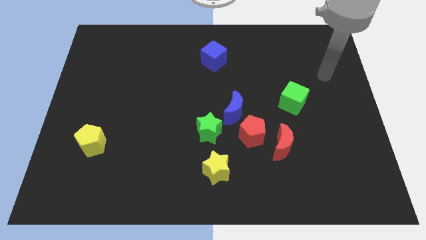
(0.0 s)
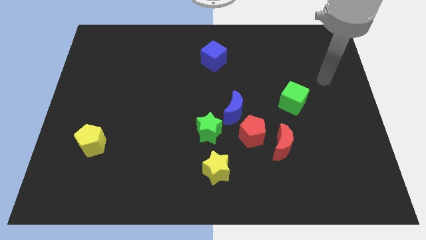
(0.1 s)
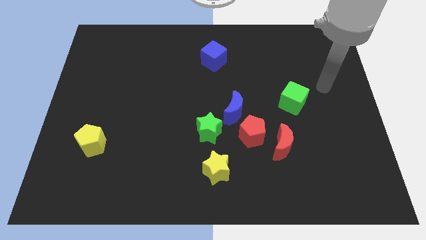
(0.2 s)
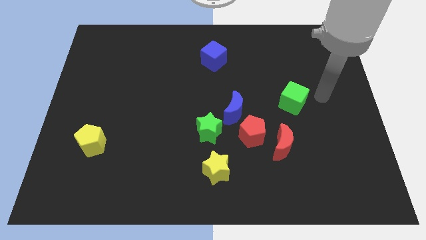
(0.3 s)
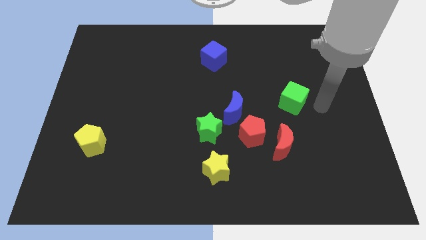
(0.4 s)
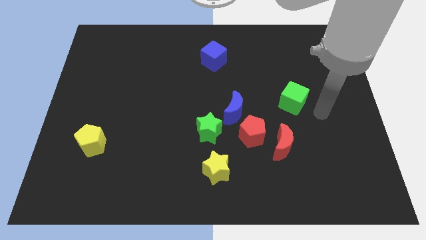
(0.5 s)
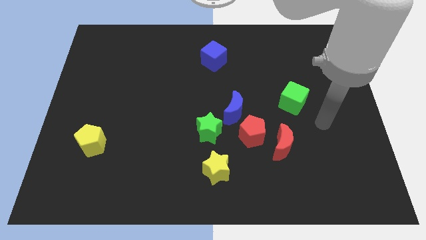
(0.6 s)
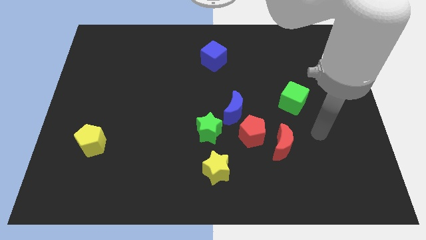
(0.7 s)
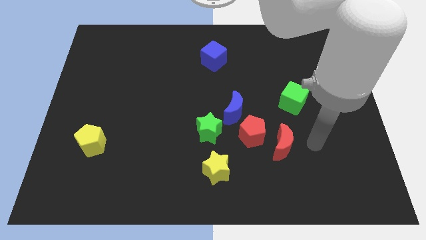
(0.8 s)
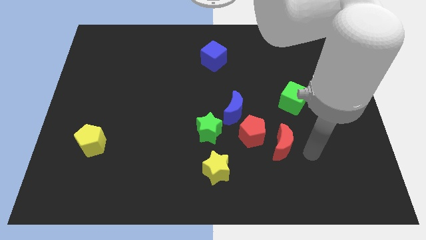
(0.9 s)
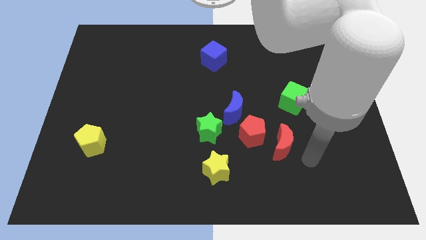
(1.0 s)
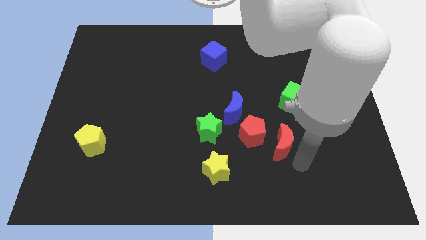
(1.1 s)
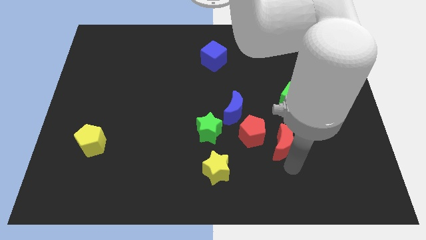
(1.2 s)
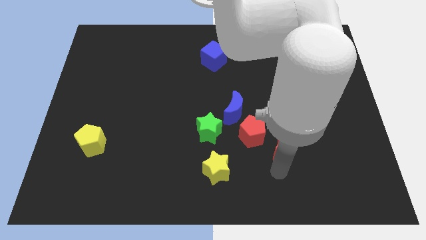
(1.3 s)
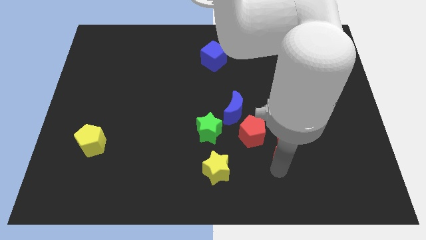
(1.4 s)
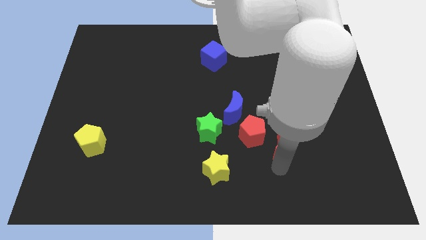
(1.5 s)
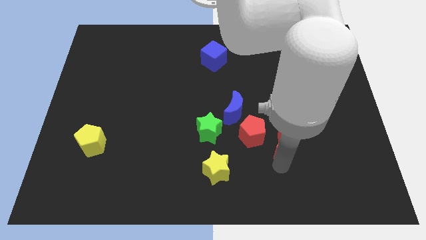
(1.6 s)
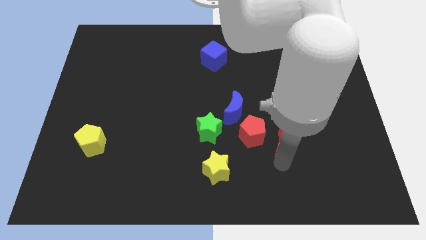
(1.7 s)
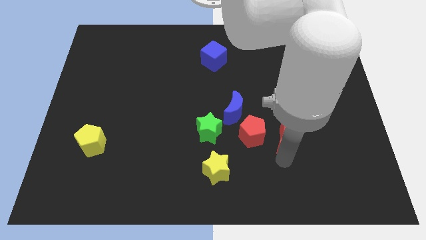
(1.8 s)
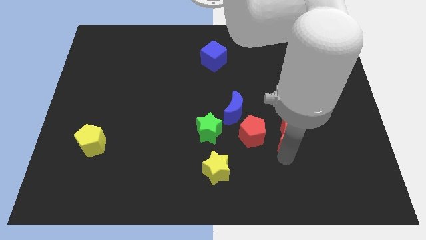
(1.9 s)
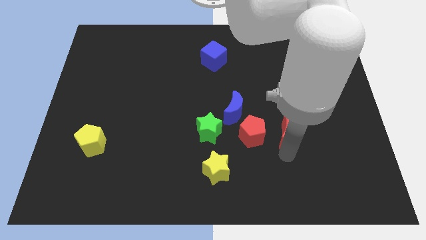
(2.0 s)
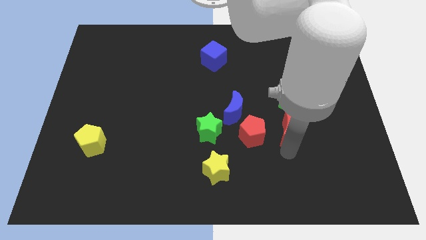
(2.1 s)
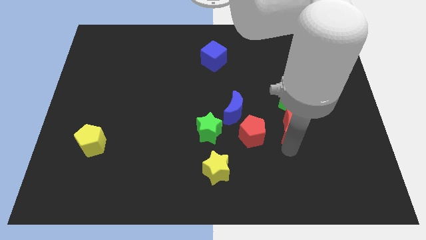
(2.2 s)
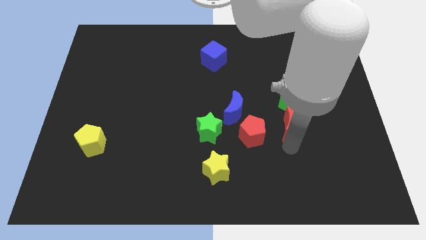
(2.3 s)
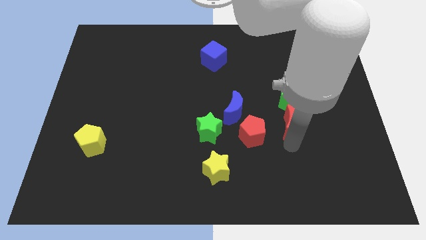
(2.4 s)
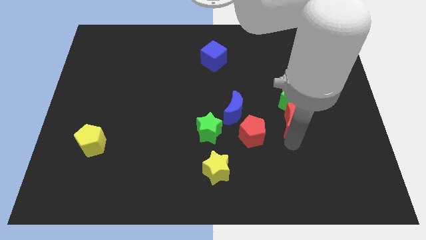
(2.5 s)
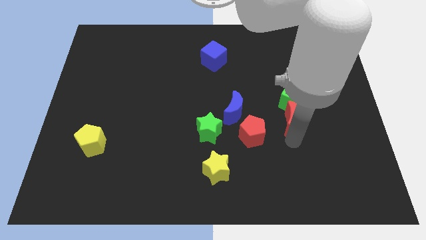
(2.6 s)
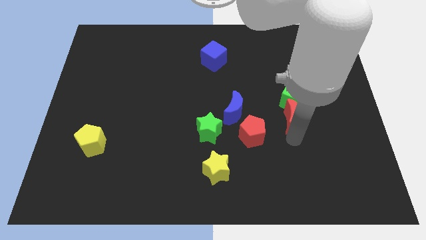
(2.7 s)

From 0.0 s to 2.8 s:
slide the red moon a little diagonally up and right

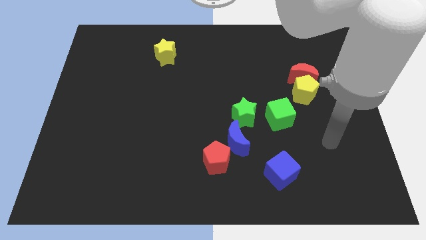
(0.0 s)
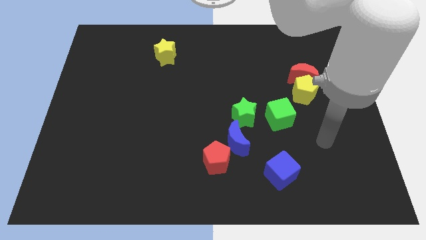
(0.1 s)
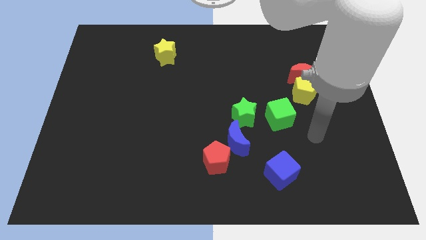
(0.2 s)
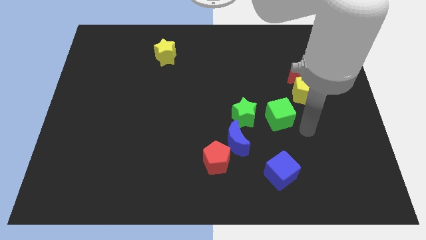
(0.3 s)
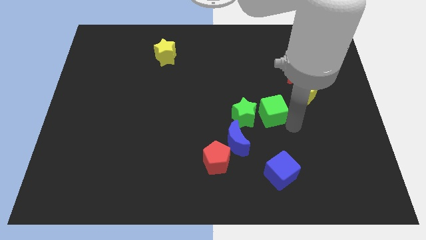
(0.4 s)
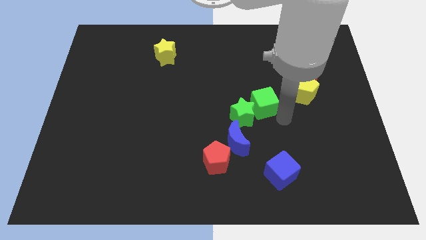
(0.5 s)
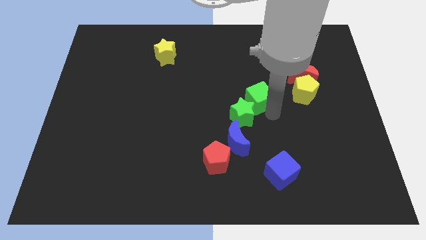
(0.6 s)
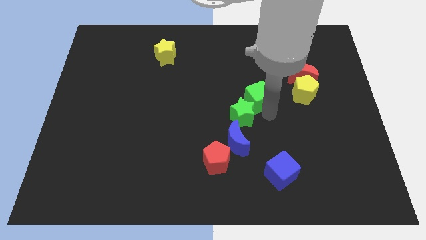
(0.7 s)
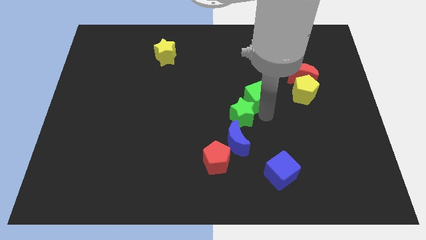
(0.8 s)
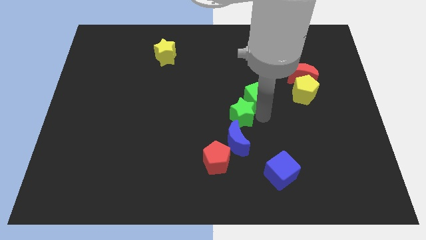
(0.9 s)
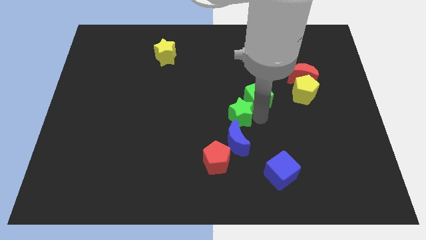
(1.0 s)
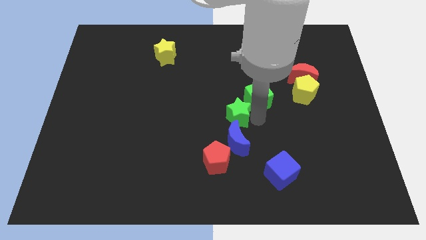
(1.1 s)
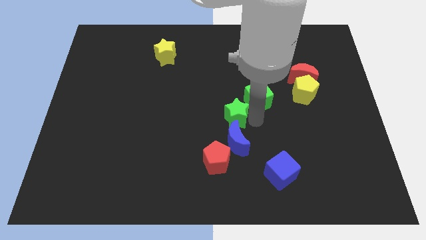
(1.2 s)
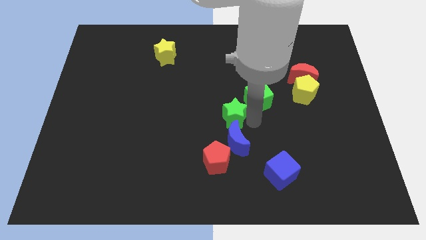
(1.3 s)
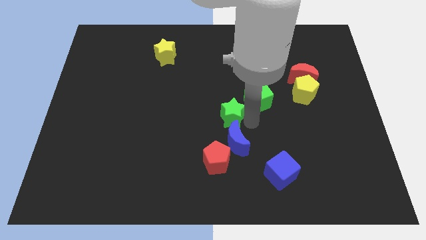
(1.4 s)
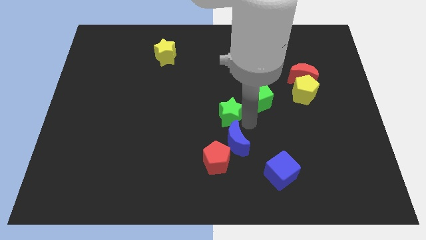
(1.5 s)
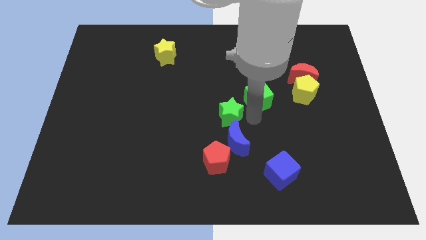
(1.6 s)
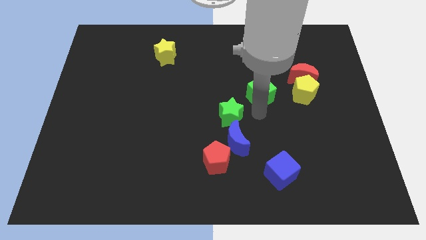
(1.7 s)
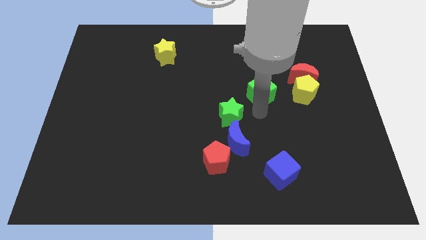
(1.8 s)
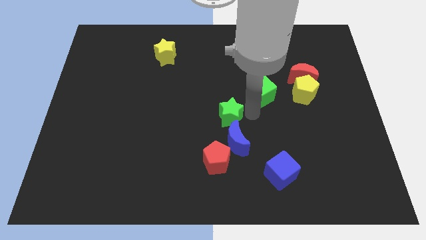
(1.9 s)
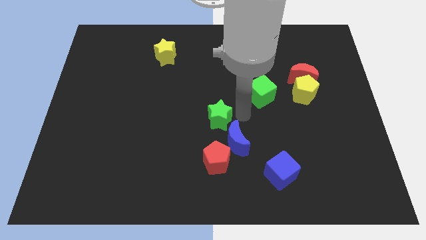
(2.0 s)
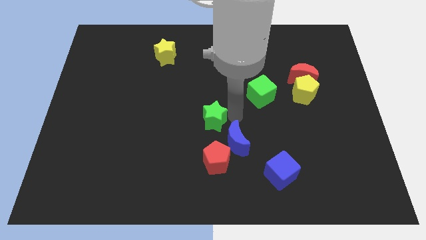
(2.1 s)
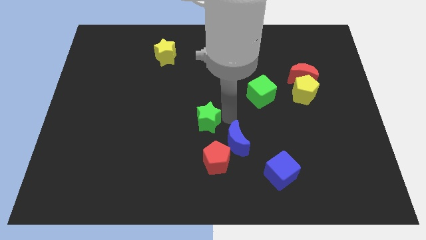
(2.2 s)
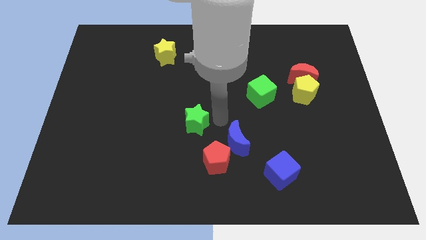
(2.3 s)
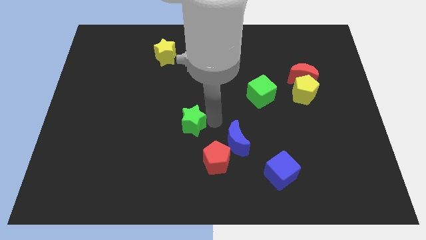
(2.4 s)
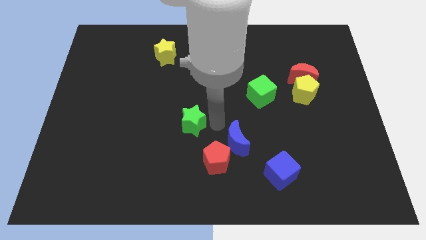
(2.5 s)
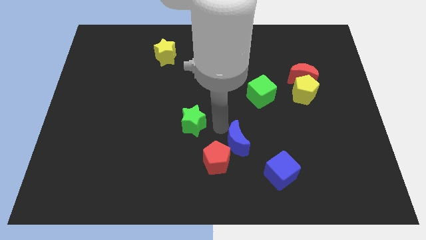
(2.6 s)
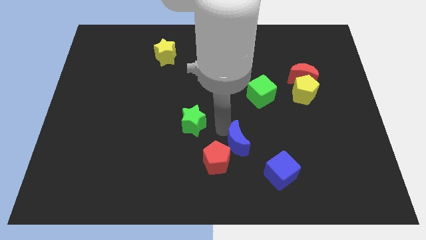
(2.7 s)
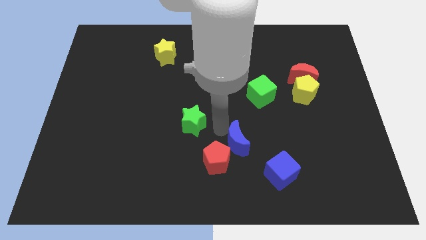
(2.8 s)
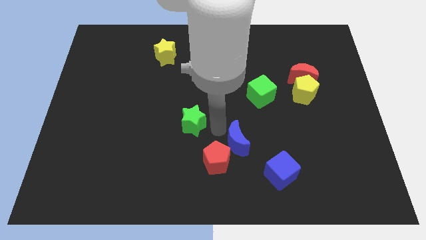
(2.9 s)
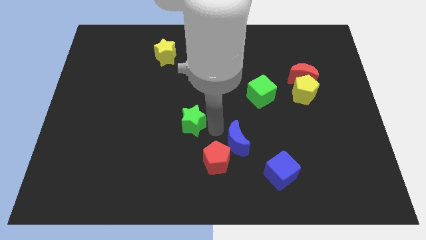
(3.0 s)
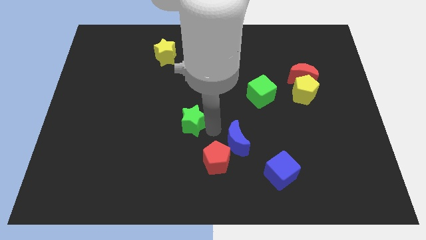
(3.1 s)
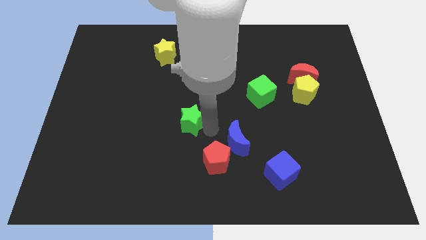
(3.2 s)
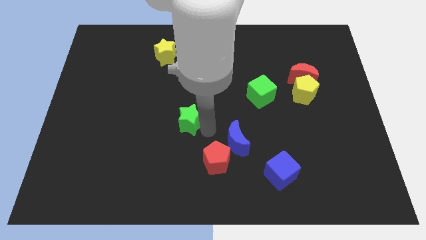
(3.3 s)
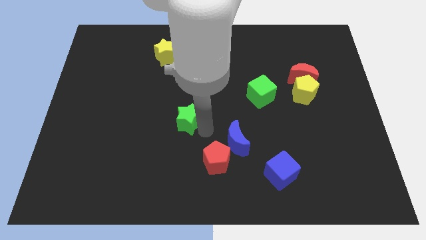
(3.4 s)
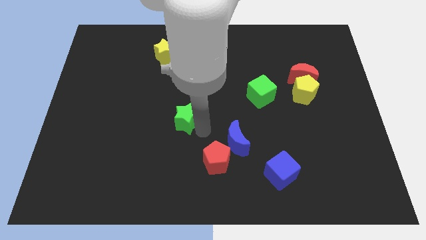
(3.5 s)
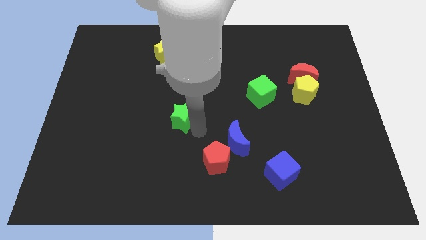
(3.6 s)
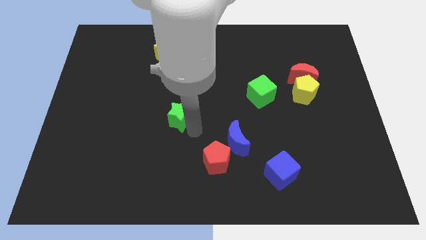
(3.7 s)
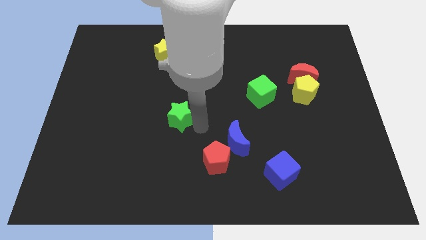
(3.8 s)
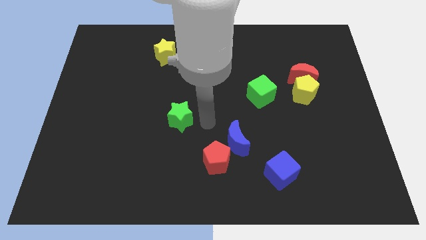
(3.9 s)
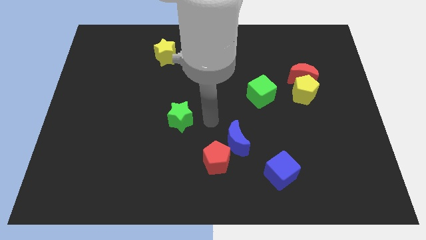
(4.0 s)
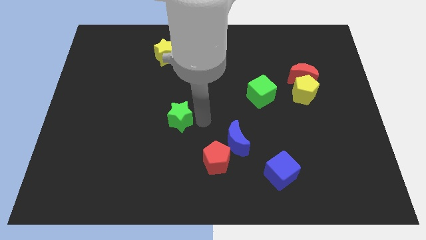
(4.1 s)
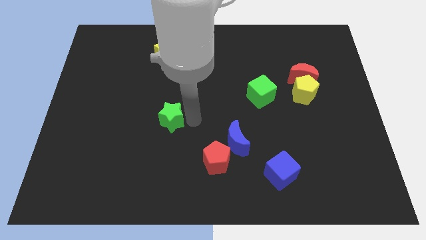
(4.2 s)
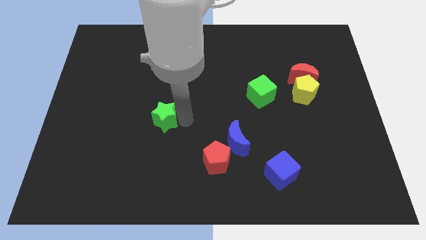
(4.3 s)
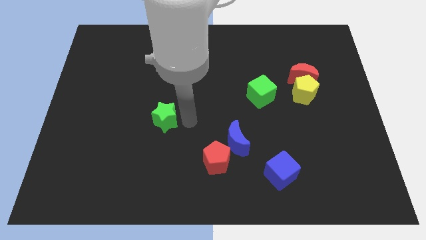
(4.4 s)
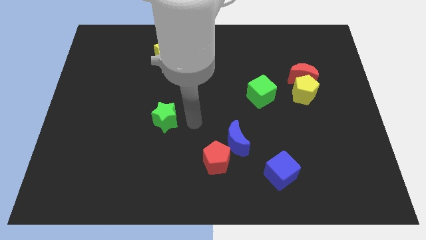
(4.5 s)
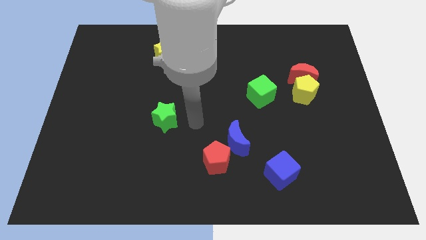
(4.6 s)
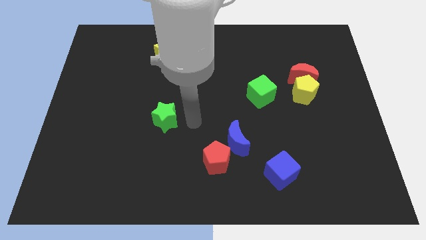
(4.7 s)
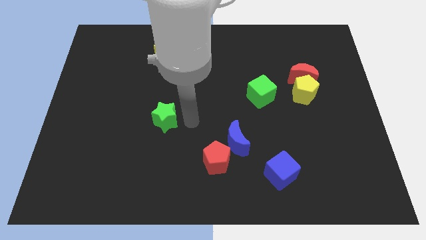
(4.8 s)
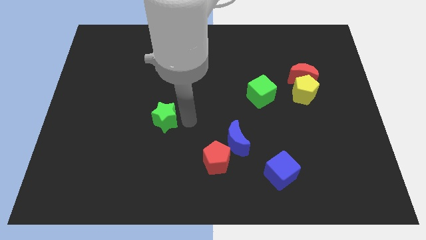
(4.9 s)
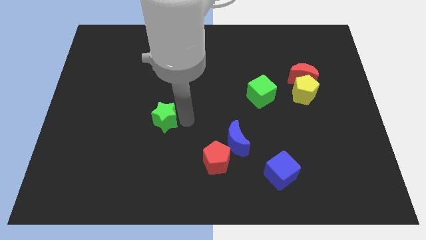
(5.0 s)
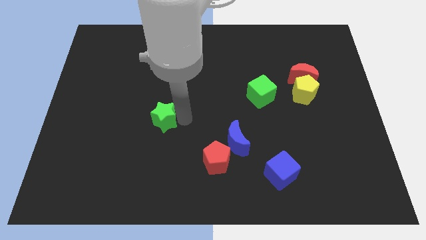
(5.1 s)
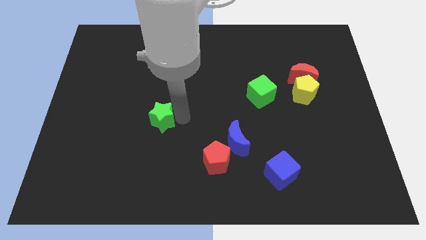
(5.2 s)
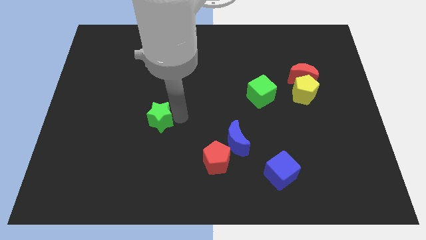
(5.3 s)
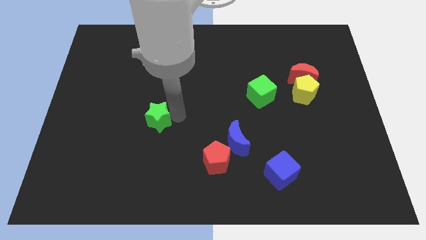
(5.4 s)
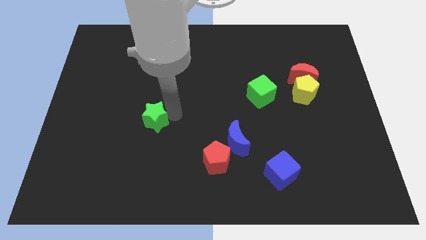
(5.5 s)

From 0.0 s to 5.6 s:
push the green star left
